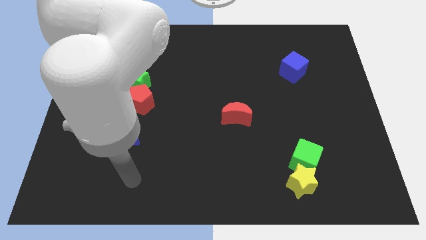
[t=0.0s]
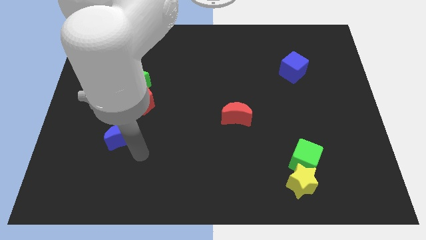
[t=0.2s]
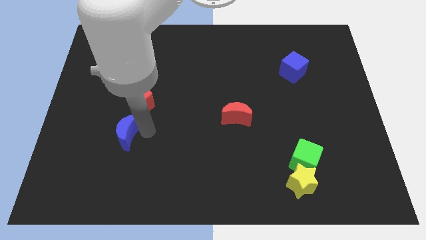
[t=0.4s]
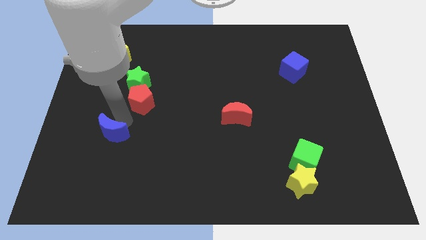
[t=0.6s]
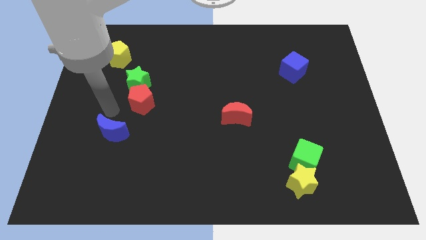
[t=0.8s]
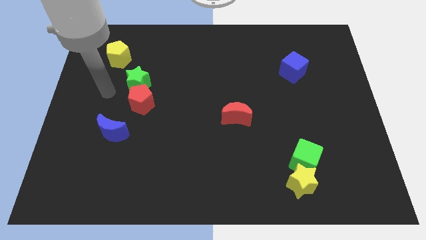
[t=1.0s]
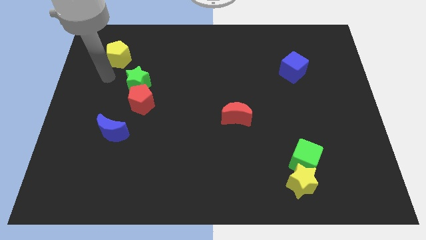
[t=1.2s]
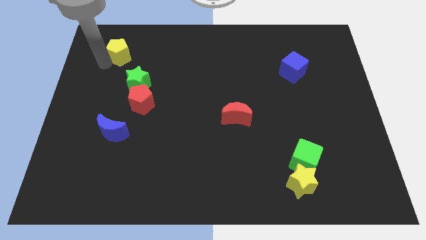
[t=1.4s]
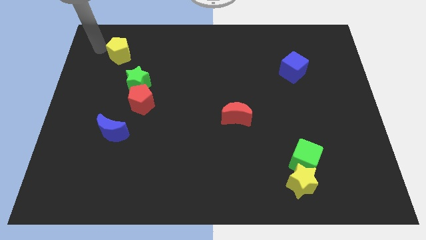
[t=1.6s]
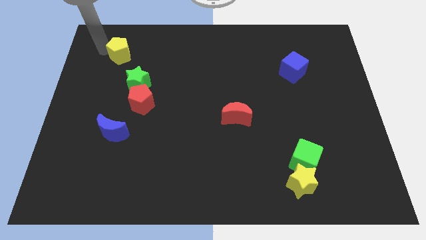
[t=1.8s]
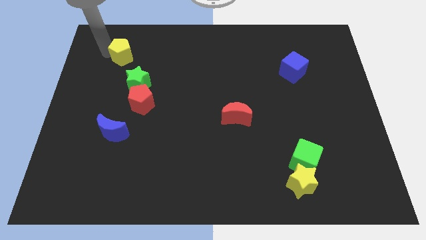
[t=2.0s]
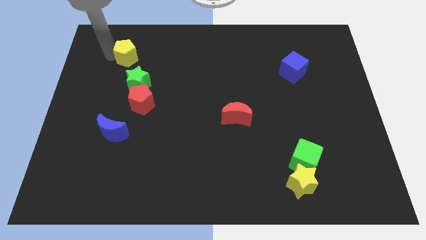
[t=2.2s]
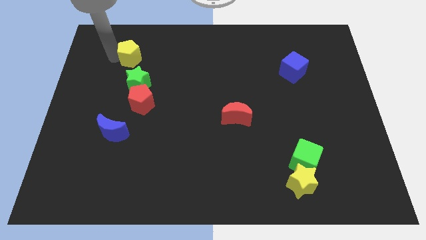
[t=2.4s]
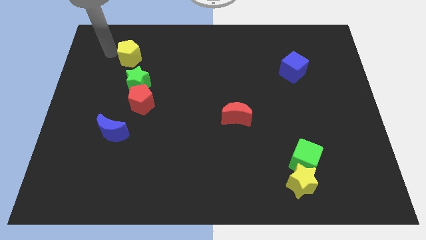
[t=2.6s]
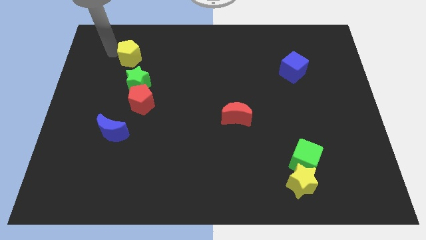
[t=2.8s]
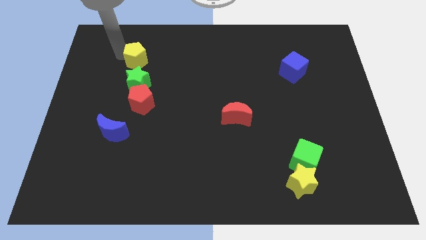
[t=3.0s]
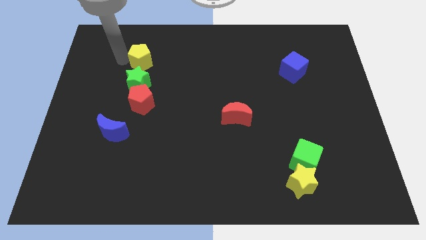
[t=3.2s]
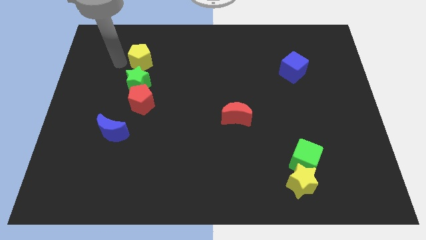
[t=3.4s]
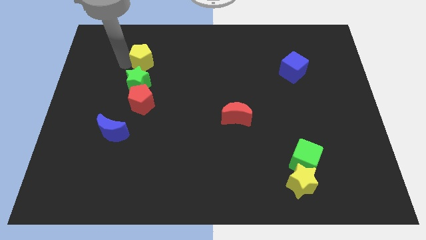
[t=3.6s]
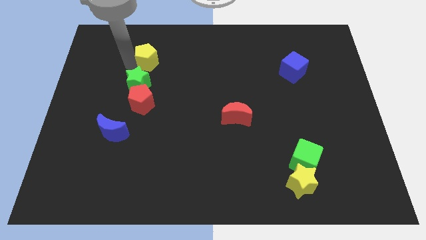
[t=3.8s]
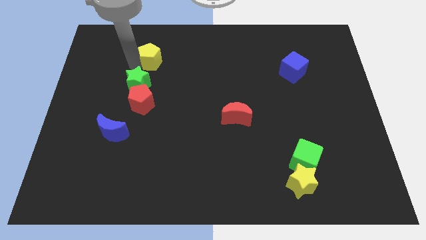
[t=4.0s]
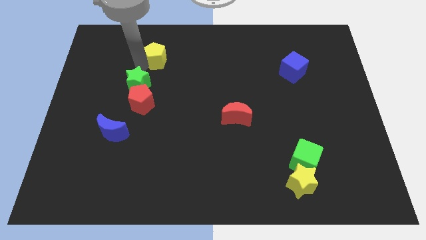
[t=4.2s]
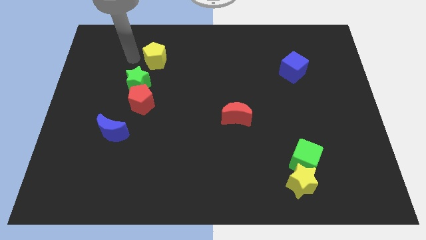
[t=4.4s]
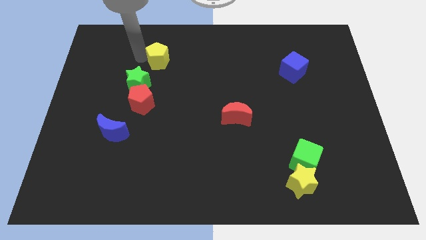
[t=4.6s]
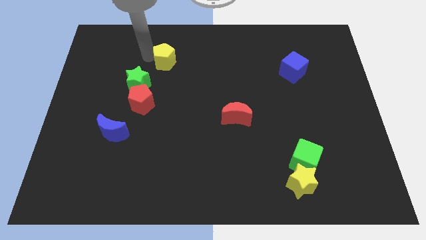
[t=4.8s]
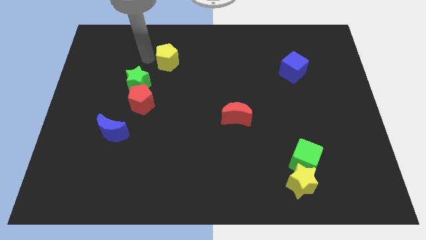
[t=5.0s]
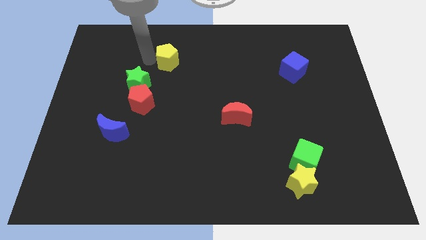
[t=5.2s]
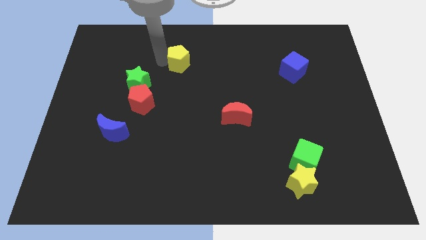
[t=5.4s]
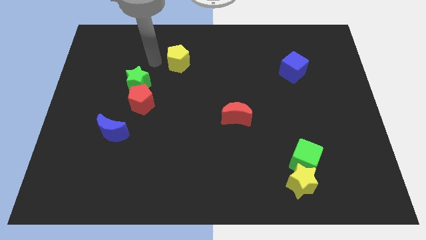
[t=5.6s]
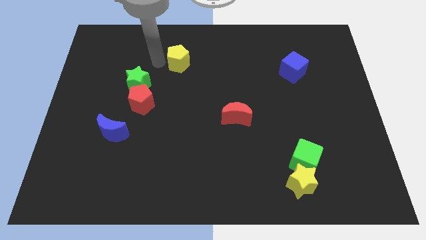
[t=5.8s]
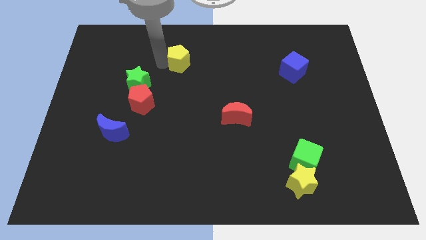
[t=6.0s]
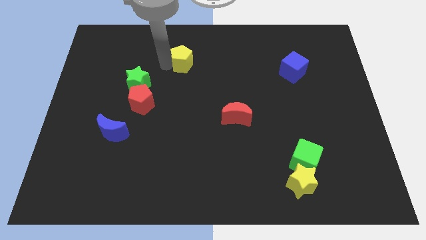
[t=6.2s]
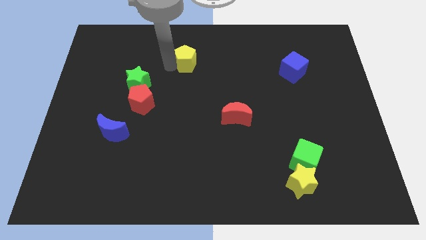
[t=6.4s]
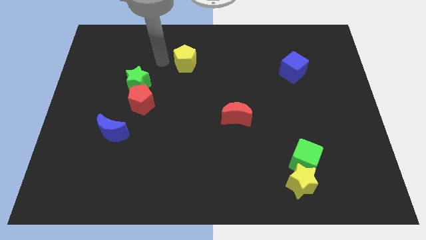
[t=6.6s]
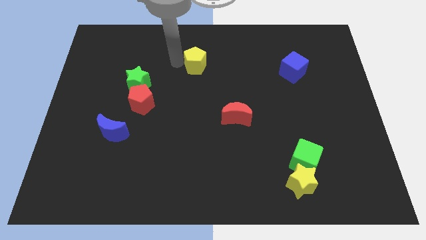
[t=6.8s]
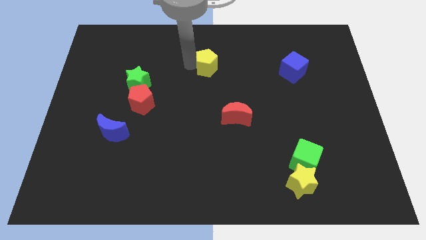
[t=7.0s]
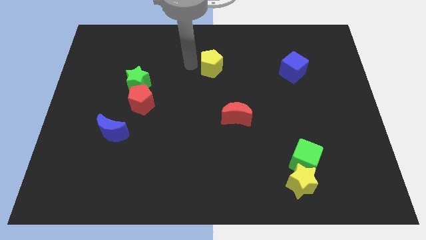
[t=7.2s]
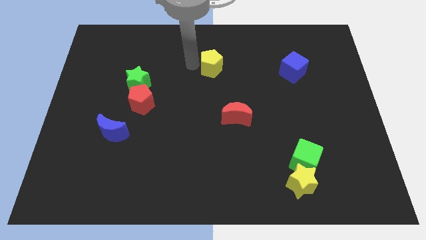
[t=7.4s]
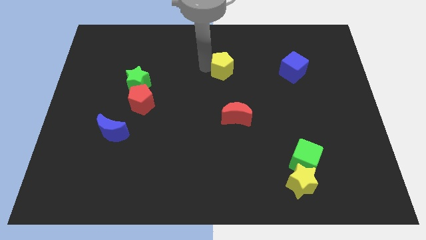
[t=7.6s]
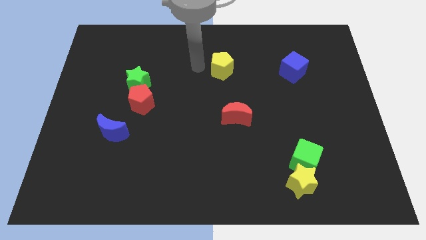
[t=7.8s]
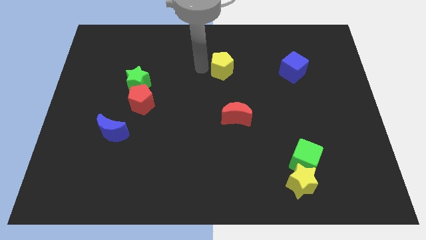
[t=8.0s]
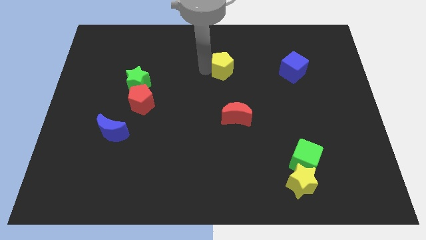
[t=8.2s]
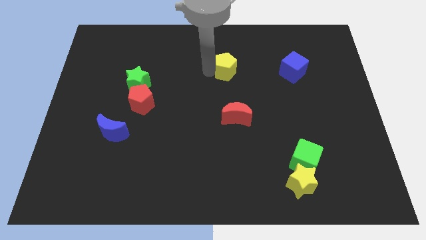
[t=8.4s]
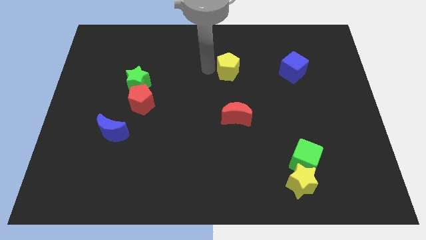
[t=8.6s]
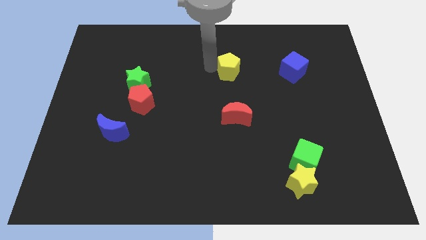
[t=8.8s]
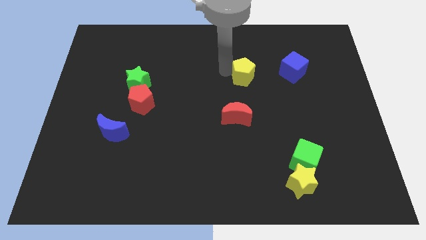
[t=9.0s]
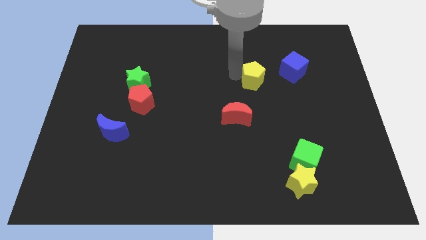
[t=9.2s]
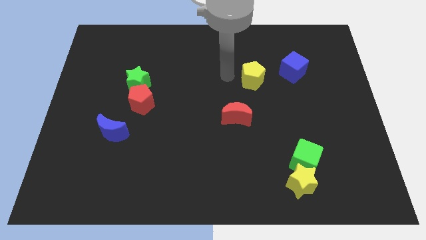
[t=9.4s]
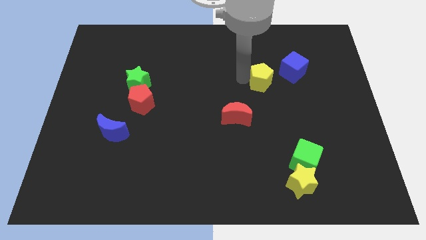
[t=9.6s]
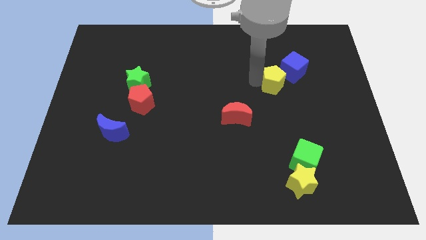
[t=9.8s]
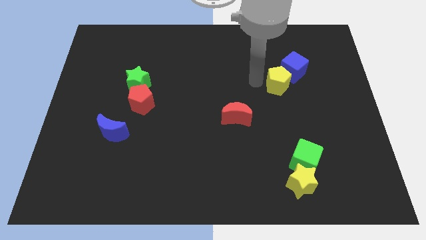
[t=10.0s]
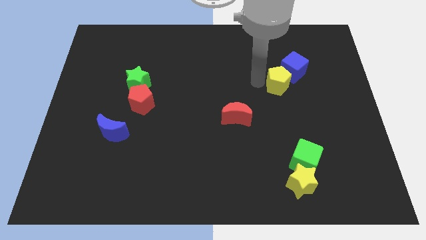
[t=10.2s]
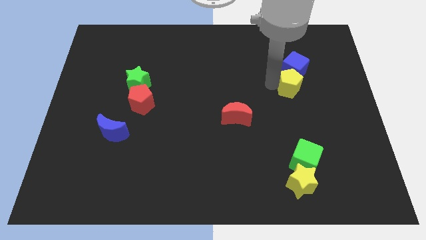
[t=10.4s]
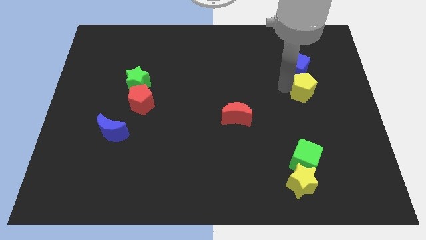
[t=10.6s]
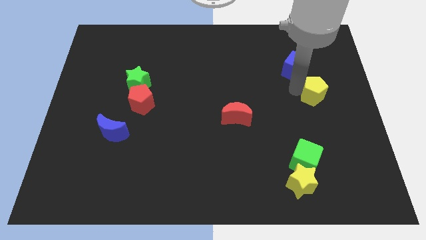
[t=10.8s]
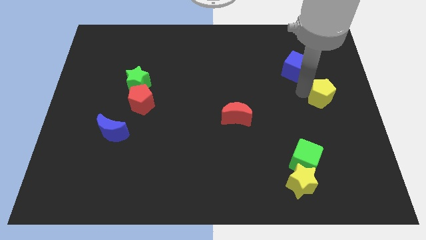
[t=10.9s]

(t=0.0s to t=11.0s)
put the yellow pentagon to the right side of the board

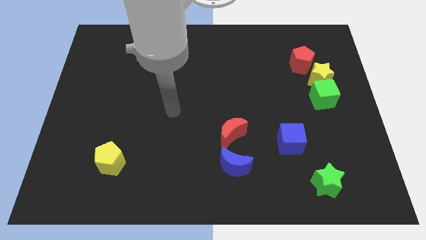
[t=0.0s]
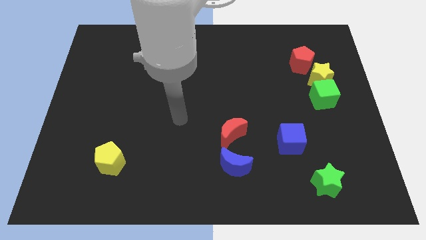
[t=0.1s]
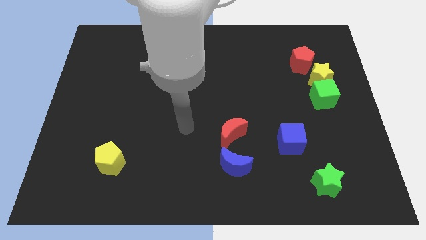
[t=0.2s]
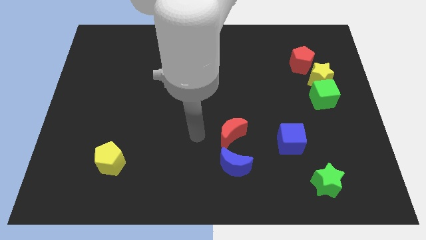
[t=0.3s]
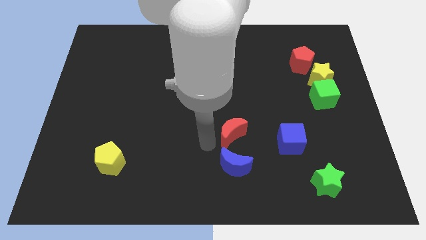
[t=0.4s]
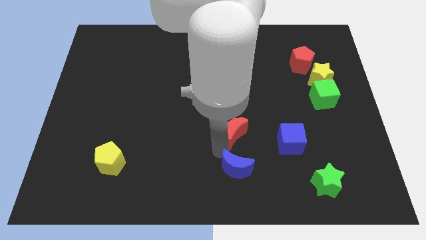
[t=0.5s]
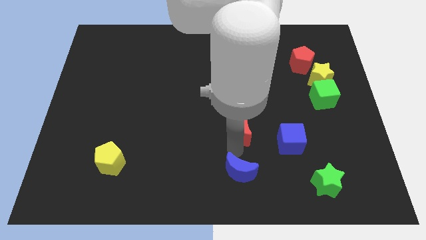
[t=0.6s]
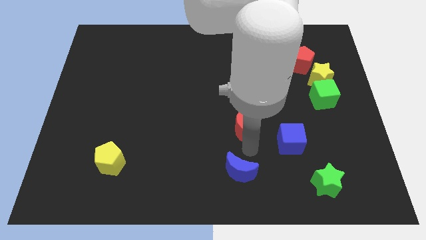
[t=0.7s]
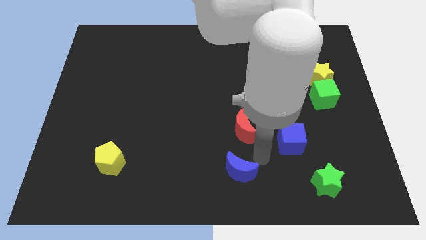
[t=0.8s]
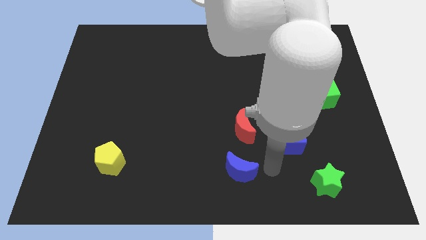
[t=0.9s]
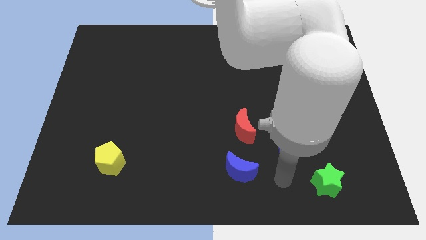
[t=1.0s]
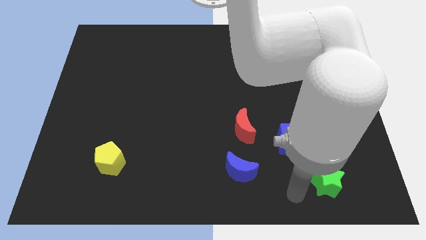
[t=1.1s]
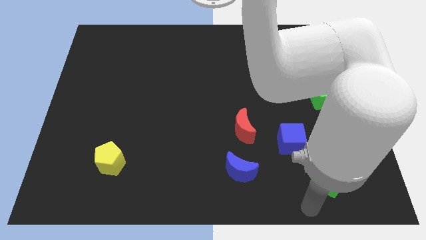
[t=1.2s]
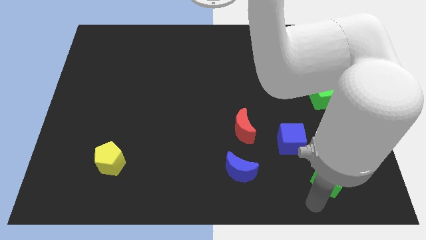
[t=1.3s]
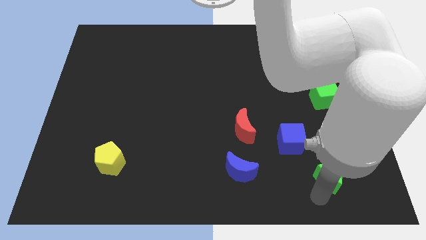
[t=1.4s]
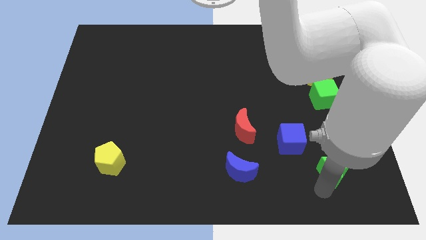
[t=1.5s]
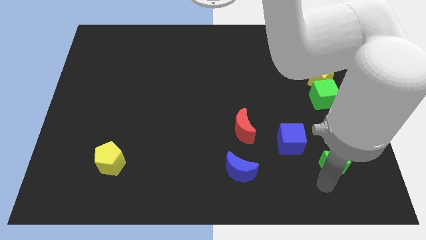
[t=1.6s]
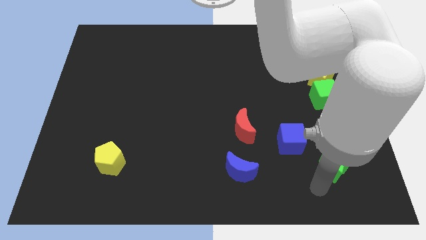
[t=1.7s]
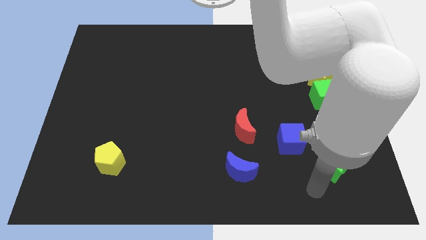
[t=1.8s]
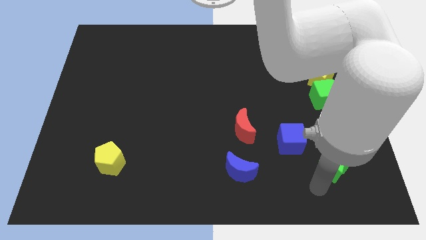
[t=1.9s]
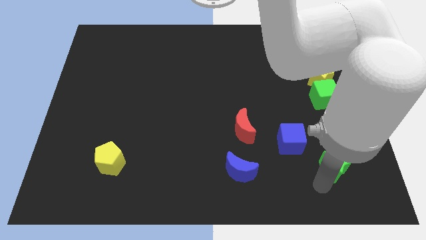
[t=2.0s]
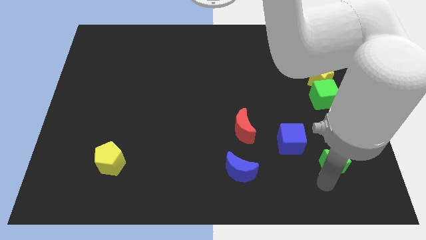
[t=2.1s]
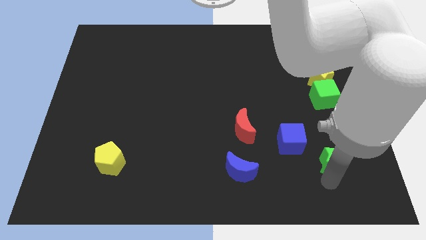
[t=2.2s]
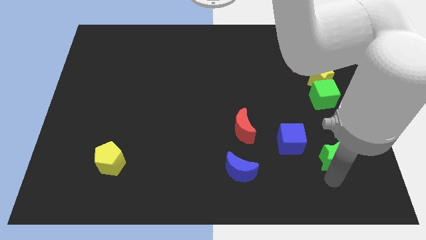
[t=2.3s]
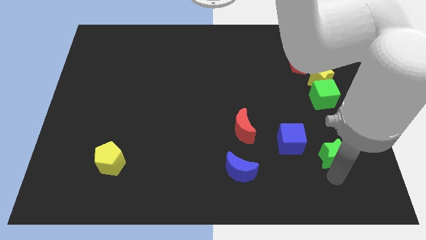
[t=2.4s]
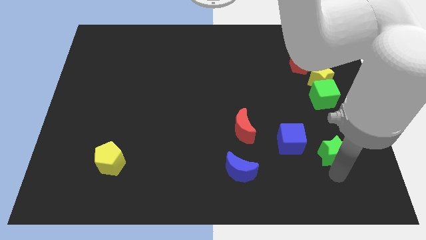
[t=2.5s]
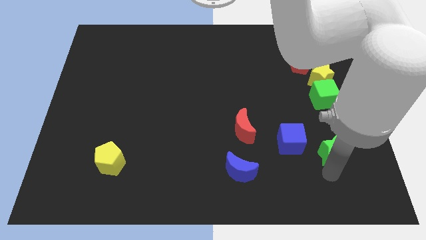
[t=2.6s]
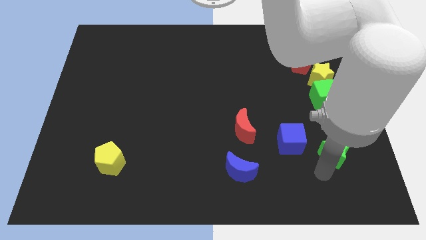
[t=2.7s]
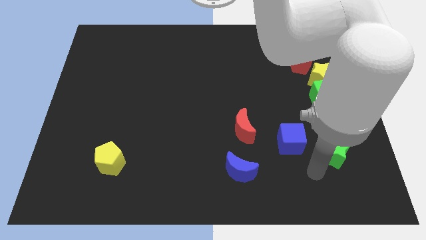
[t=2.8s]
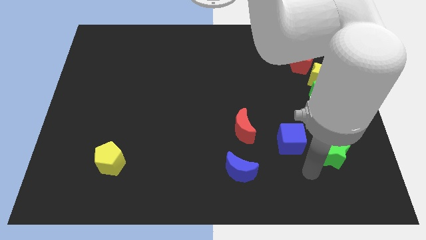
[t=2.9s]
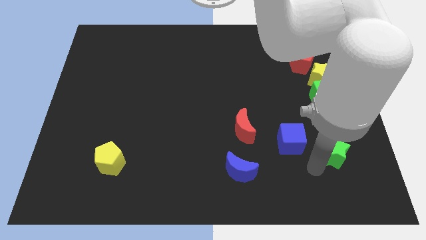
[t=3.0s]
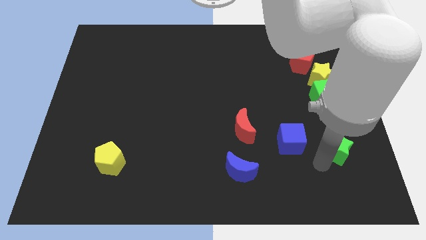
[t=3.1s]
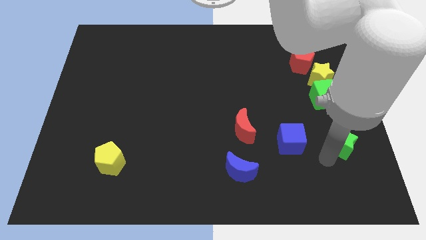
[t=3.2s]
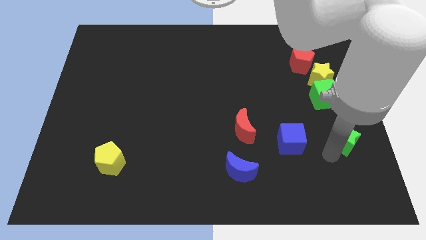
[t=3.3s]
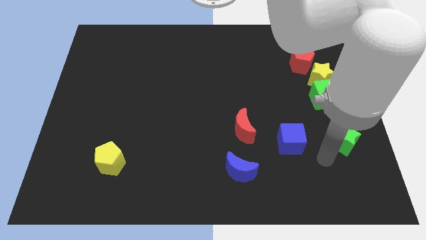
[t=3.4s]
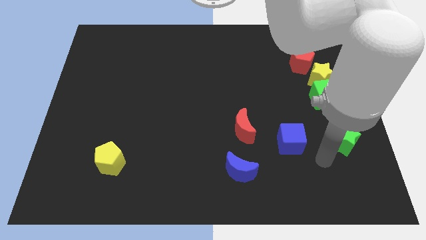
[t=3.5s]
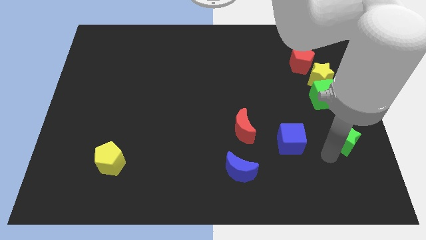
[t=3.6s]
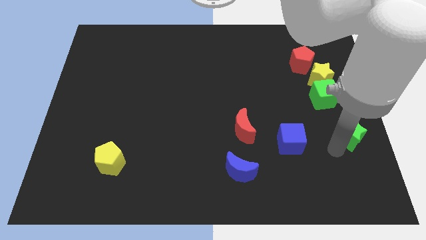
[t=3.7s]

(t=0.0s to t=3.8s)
push the green star to the right side of the board
